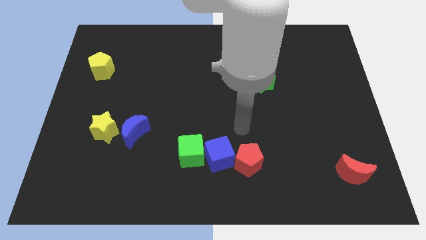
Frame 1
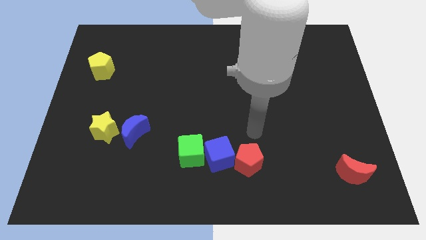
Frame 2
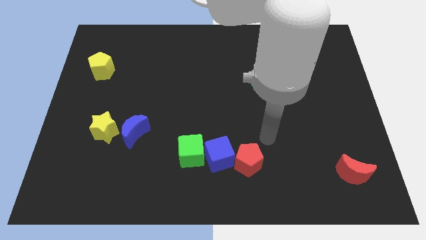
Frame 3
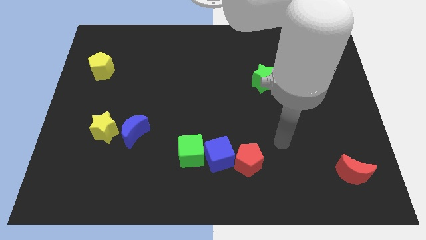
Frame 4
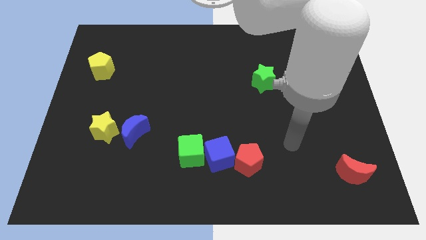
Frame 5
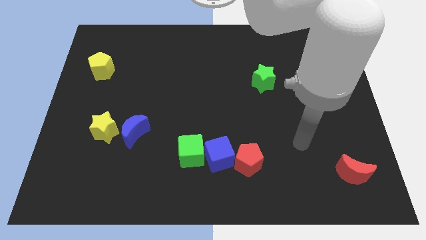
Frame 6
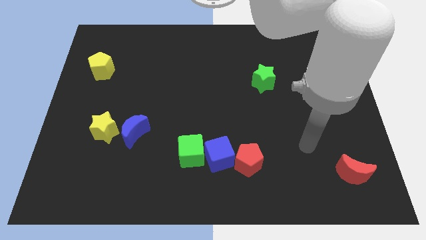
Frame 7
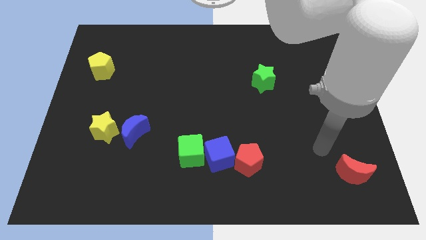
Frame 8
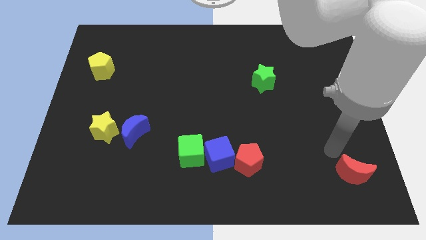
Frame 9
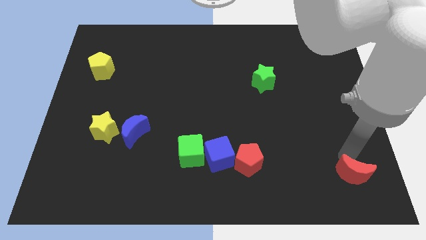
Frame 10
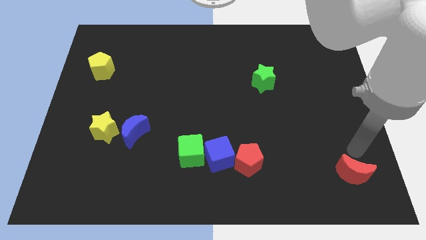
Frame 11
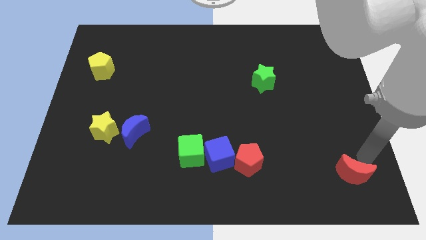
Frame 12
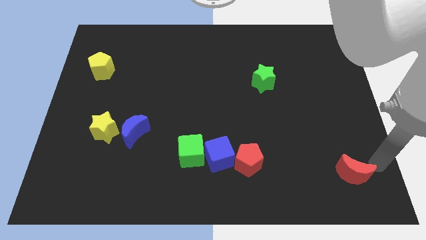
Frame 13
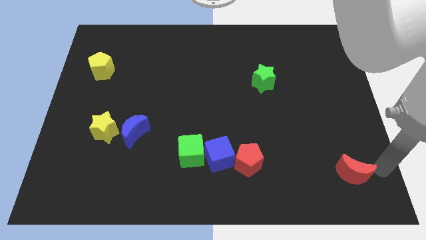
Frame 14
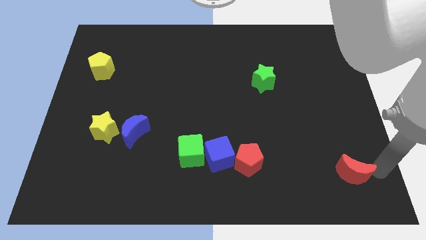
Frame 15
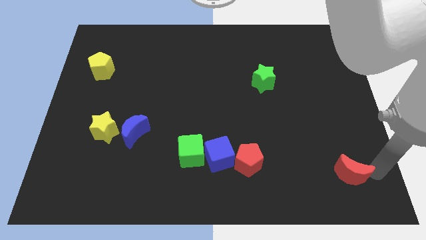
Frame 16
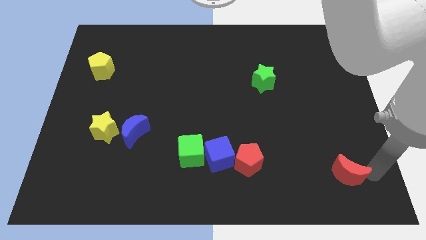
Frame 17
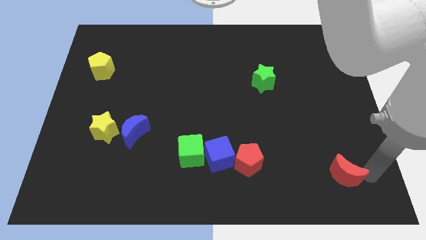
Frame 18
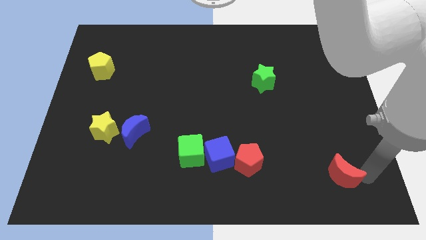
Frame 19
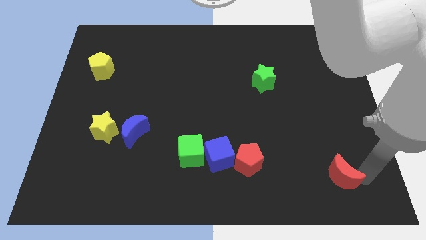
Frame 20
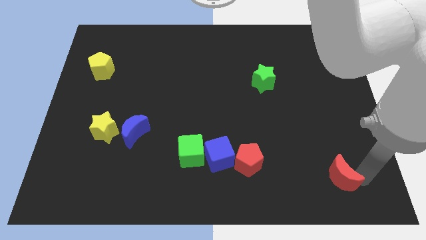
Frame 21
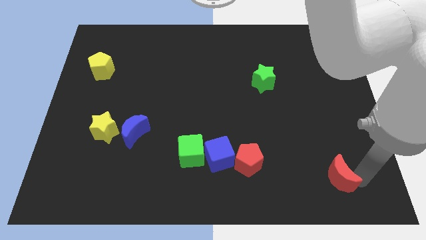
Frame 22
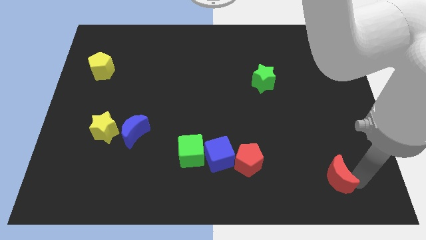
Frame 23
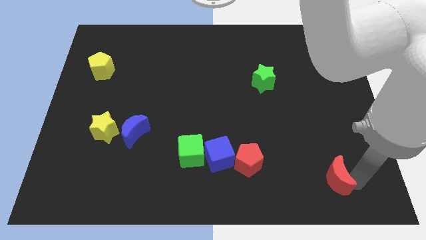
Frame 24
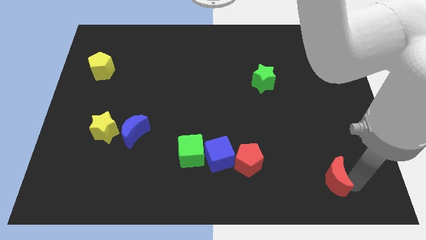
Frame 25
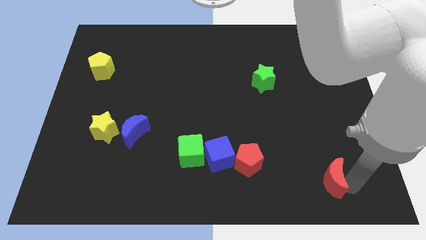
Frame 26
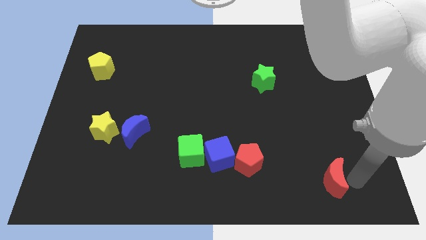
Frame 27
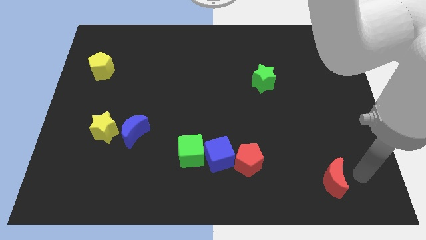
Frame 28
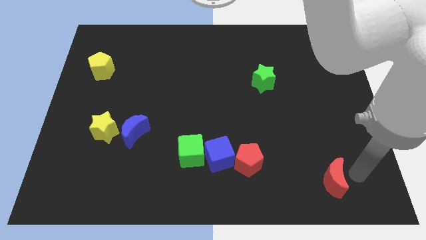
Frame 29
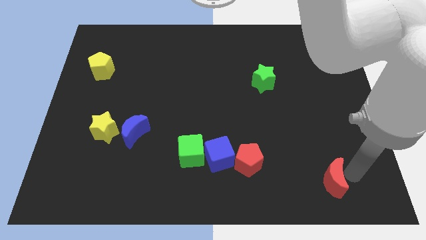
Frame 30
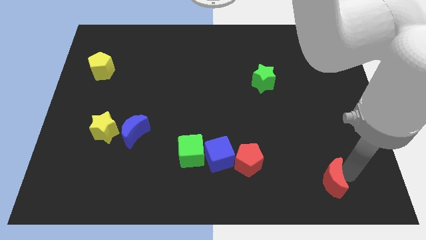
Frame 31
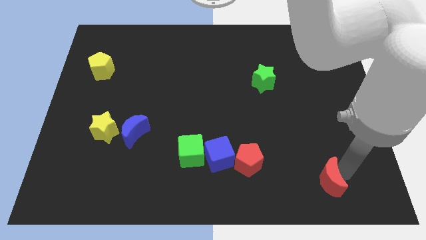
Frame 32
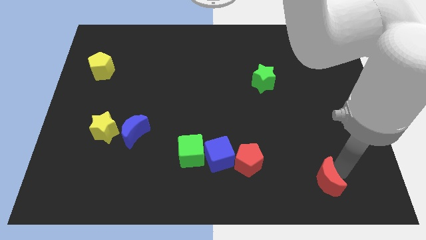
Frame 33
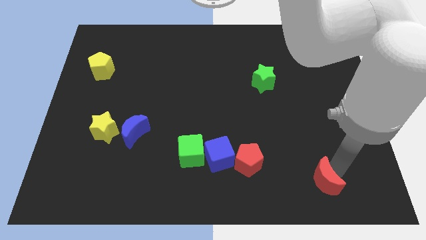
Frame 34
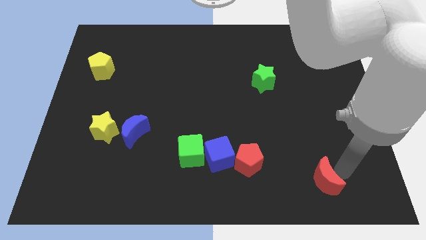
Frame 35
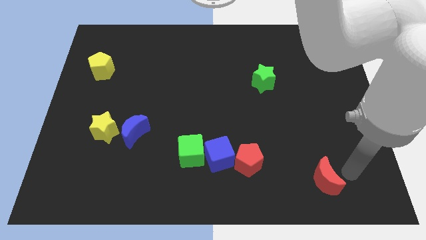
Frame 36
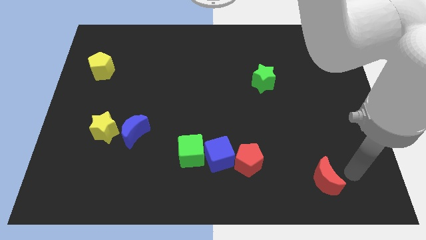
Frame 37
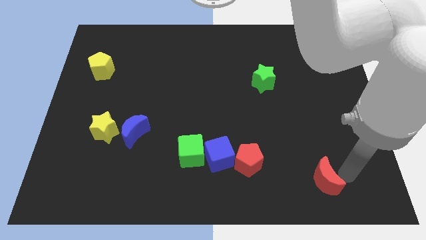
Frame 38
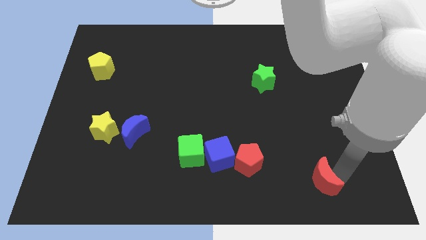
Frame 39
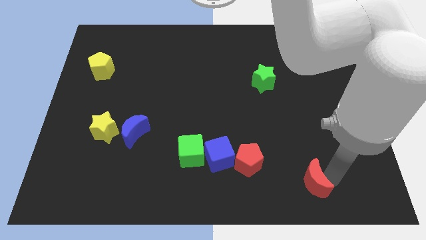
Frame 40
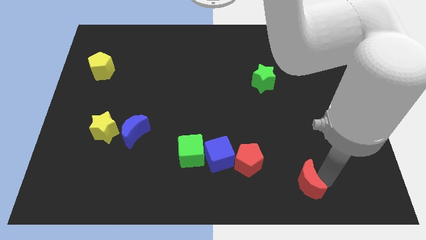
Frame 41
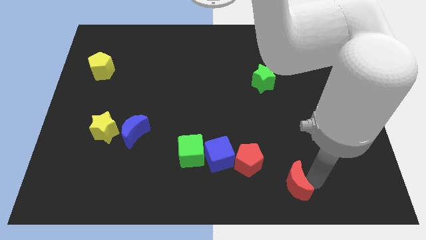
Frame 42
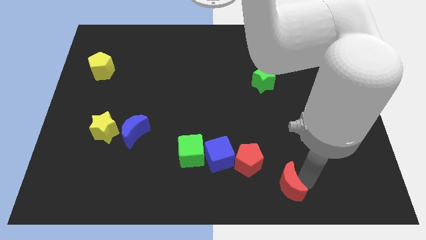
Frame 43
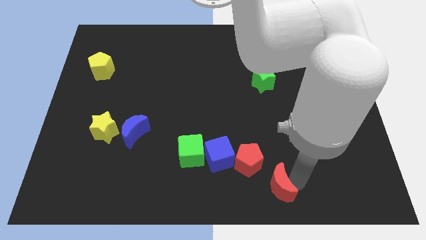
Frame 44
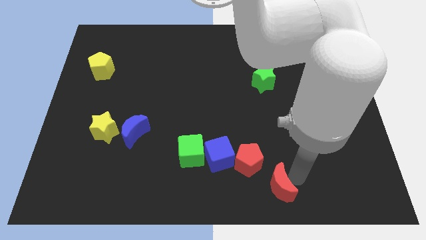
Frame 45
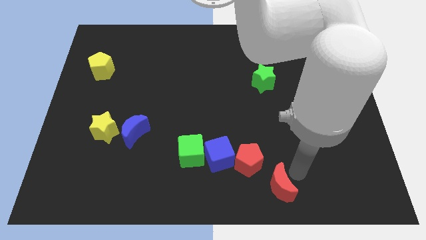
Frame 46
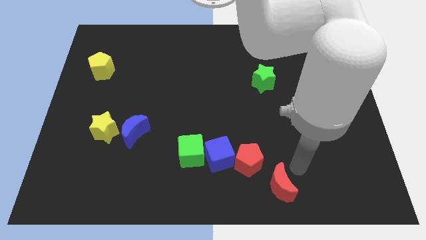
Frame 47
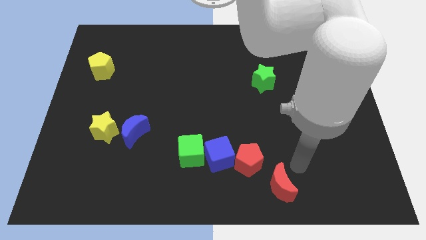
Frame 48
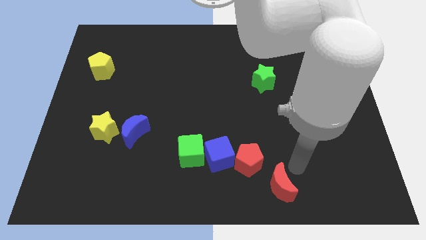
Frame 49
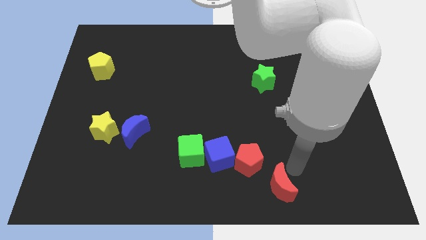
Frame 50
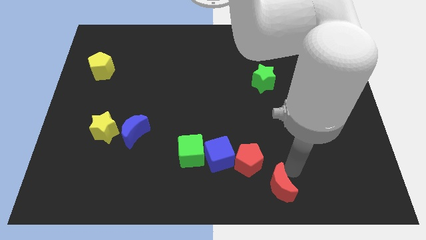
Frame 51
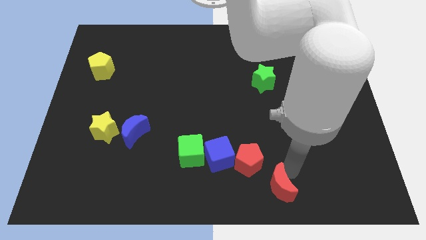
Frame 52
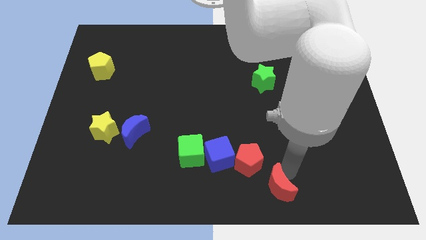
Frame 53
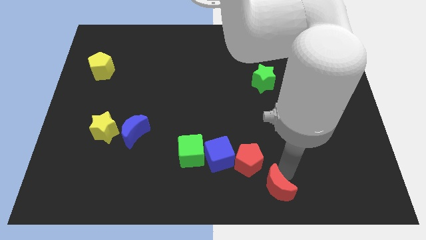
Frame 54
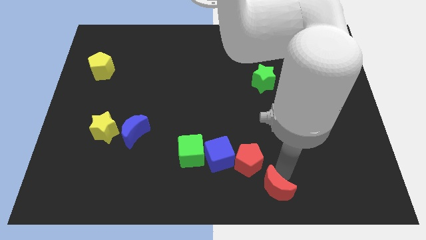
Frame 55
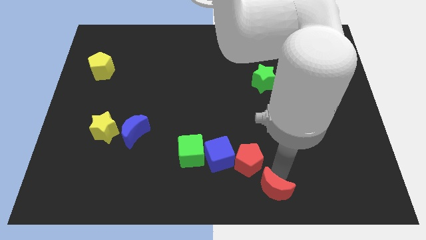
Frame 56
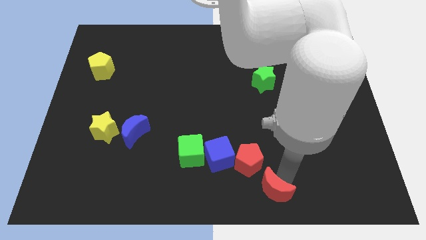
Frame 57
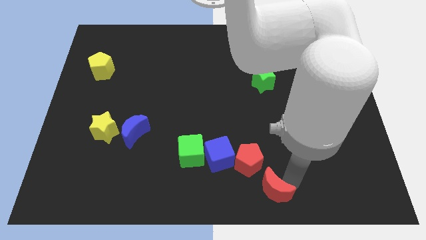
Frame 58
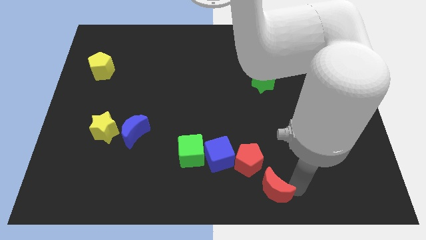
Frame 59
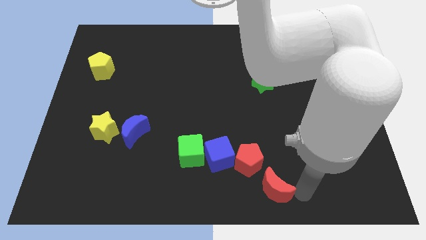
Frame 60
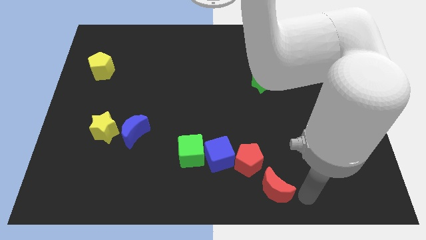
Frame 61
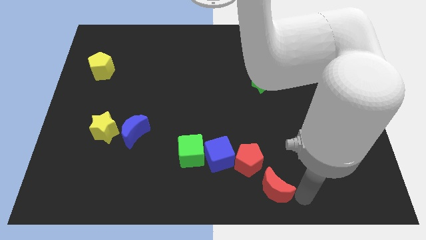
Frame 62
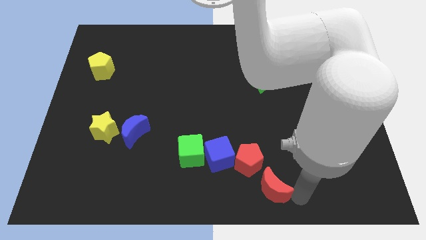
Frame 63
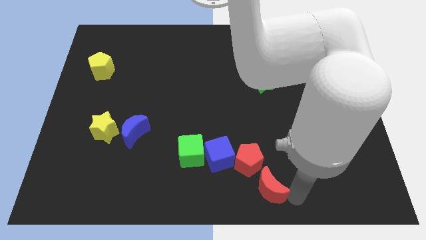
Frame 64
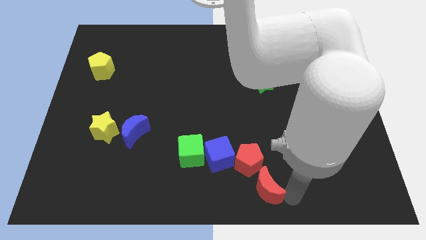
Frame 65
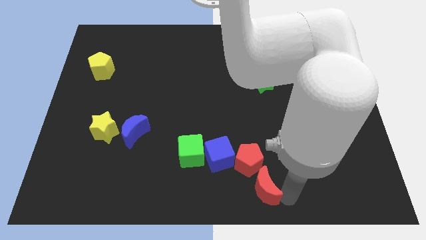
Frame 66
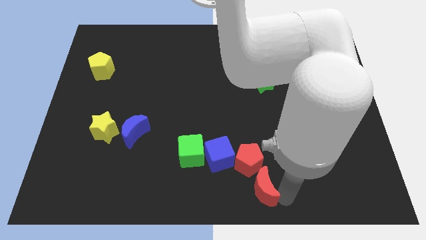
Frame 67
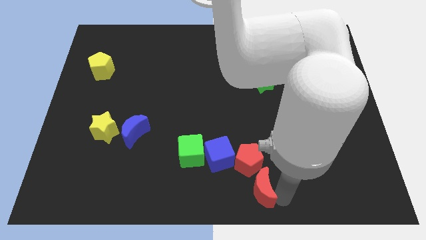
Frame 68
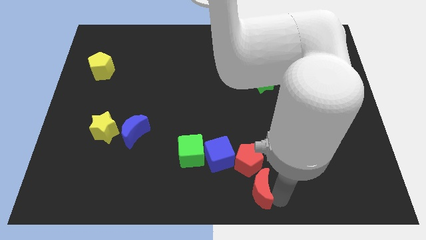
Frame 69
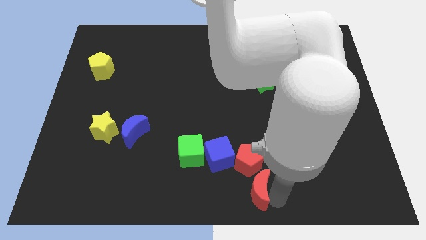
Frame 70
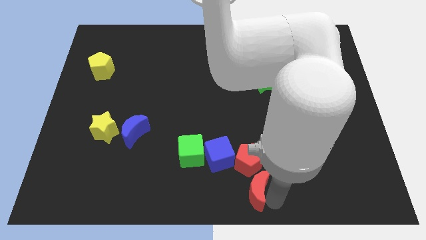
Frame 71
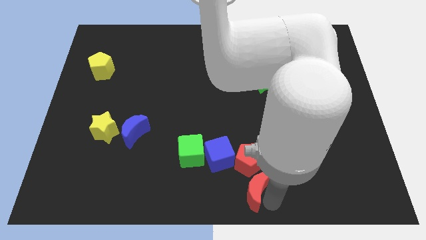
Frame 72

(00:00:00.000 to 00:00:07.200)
slide the red moon left

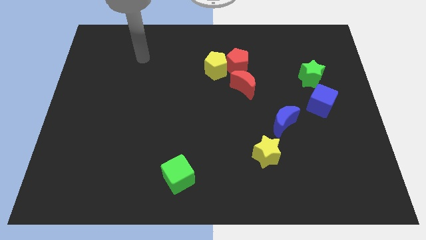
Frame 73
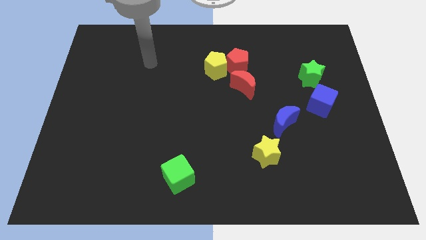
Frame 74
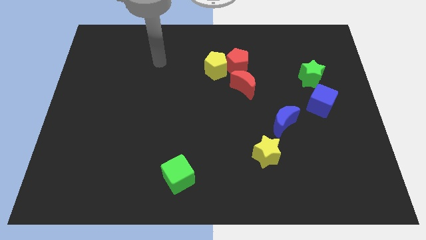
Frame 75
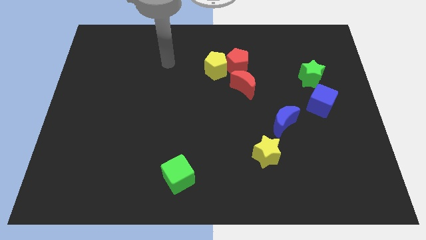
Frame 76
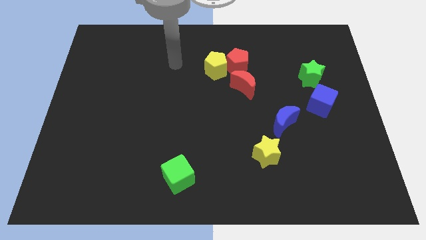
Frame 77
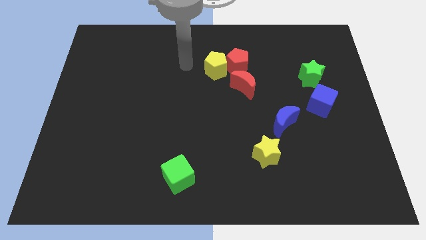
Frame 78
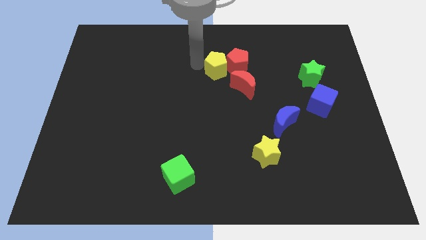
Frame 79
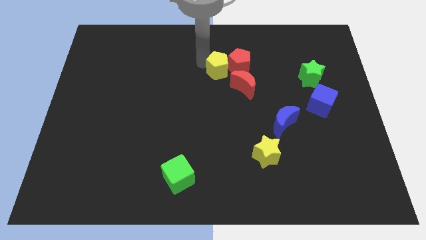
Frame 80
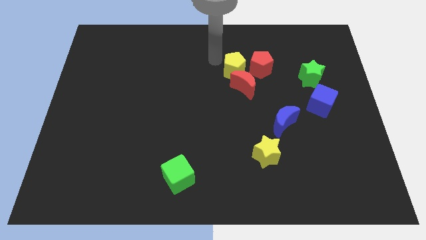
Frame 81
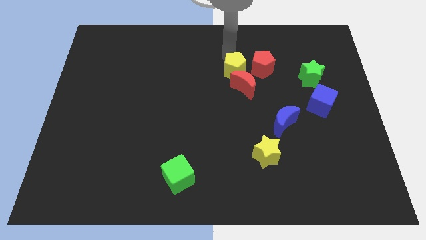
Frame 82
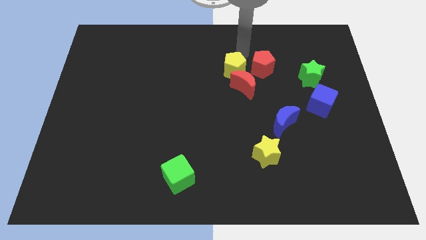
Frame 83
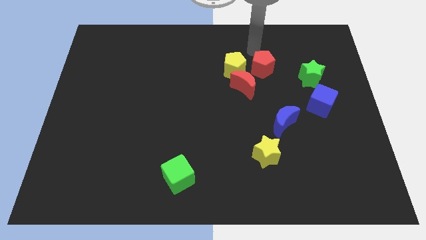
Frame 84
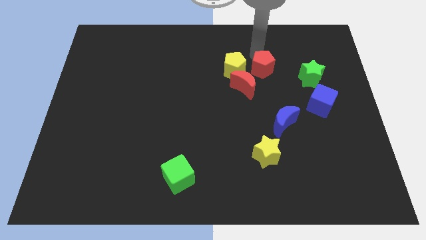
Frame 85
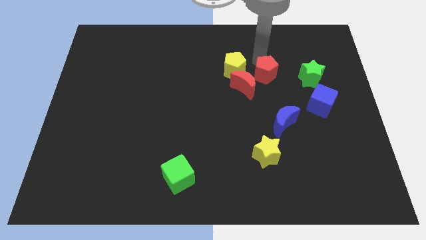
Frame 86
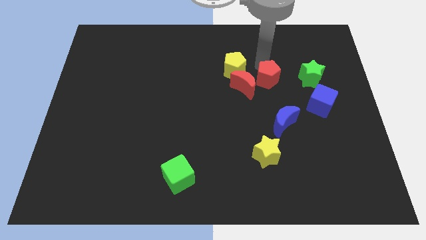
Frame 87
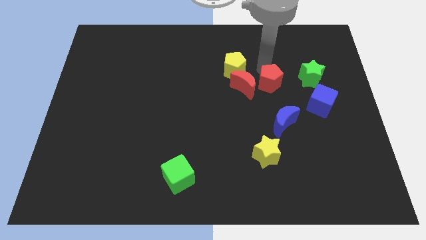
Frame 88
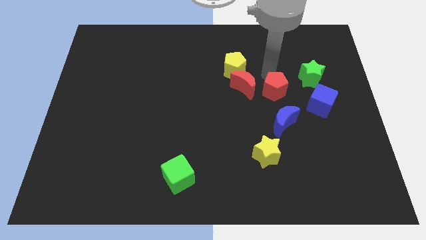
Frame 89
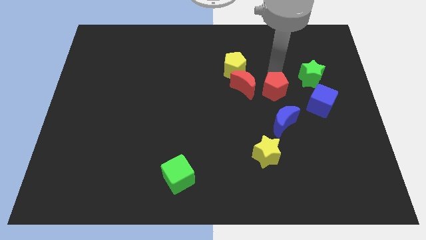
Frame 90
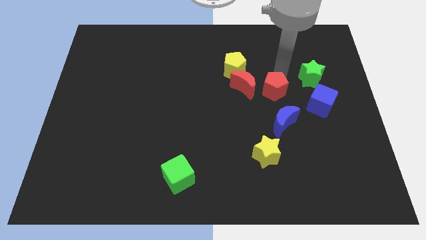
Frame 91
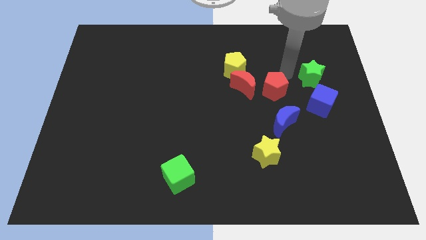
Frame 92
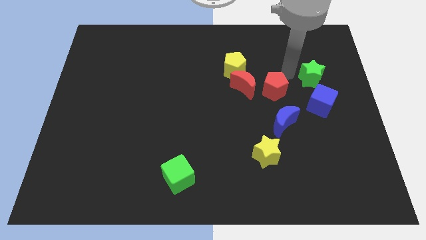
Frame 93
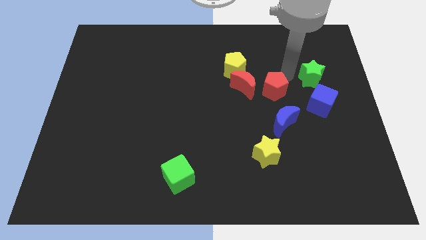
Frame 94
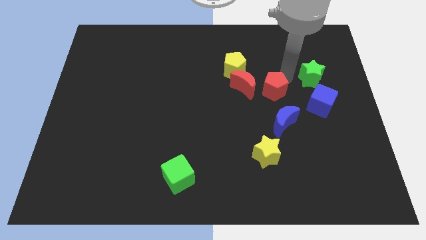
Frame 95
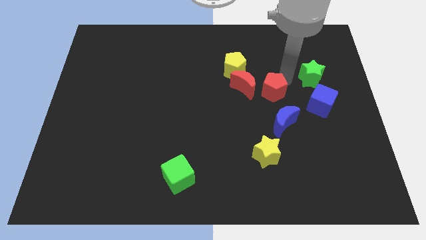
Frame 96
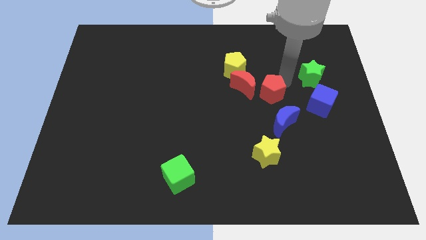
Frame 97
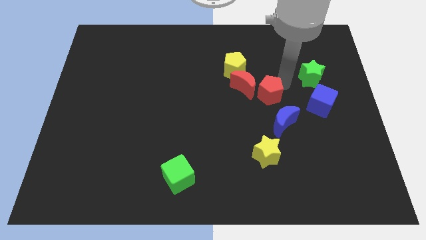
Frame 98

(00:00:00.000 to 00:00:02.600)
move the red pentagon down a little bit
